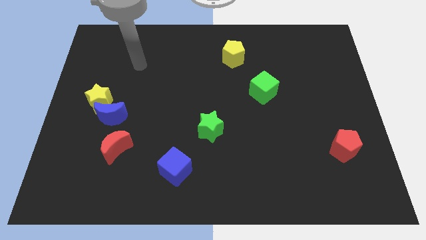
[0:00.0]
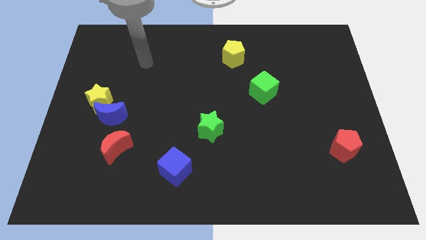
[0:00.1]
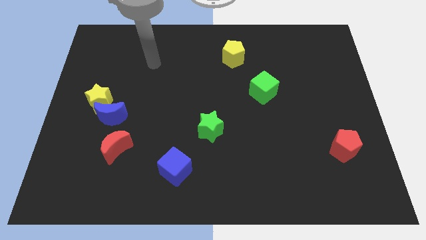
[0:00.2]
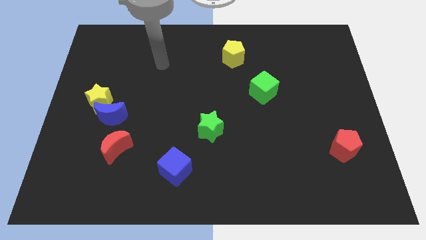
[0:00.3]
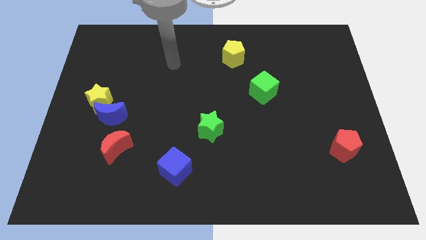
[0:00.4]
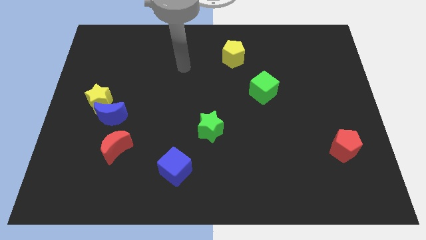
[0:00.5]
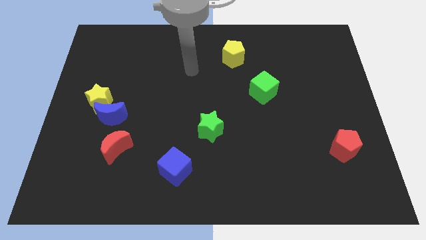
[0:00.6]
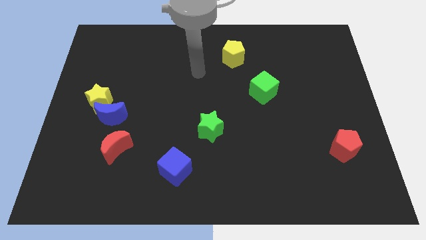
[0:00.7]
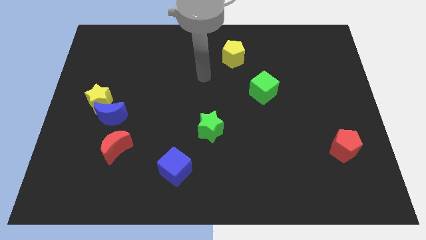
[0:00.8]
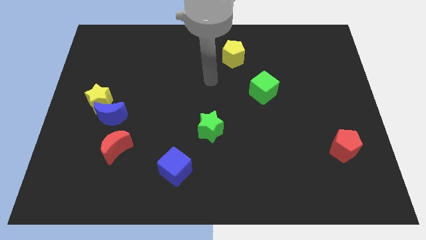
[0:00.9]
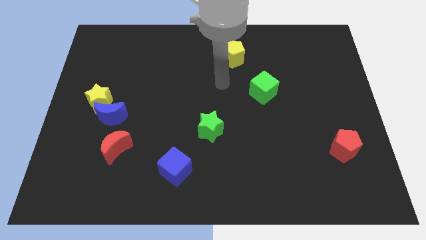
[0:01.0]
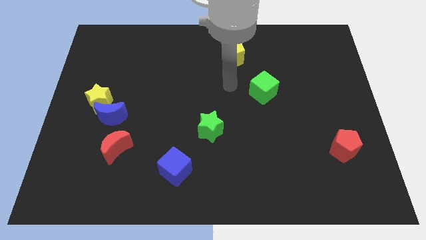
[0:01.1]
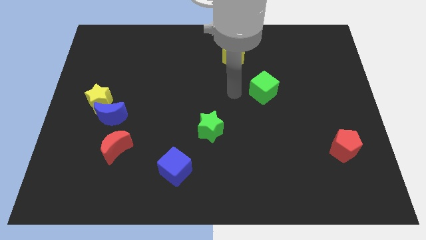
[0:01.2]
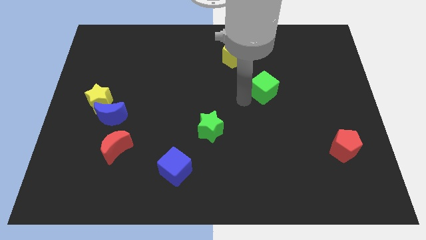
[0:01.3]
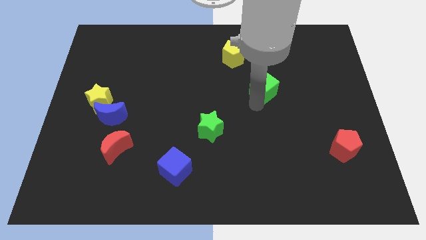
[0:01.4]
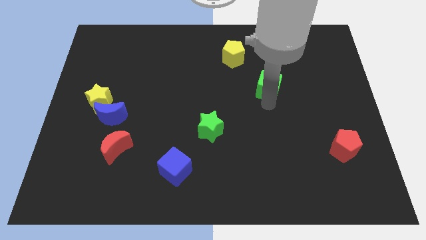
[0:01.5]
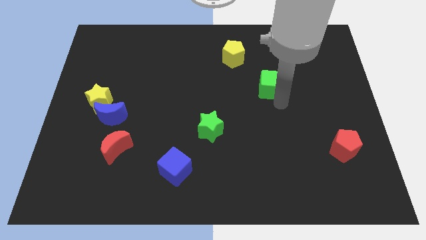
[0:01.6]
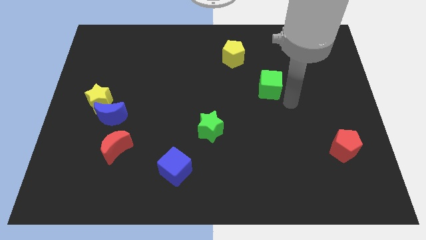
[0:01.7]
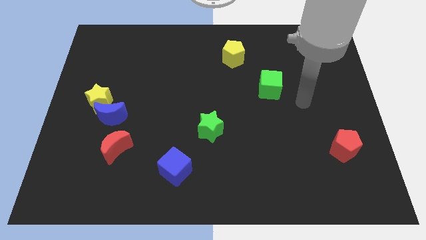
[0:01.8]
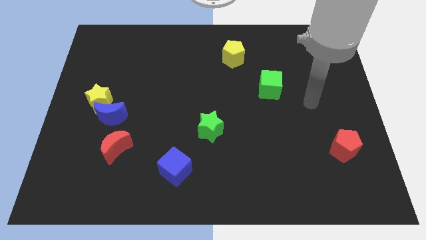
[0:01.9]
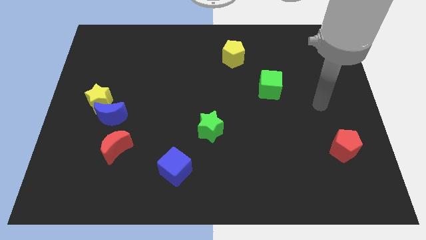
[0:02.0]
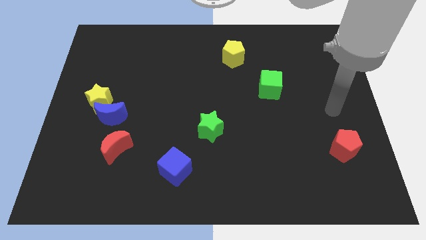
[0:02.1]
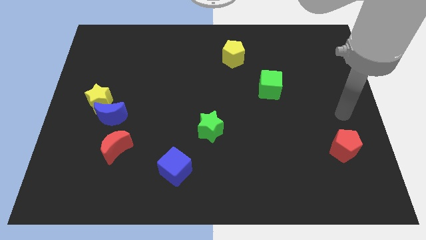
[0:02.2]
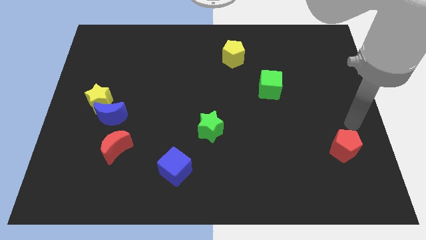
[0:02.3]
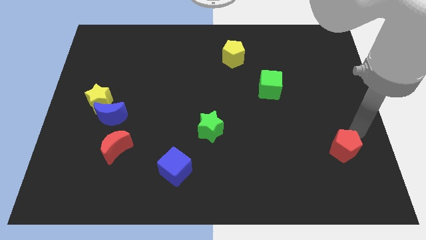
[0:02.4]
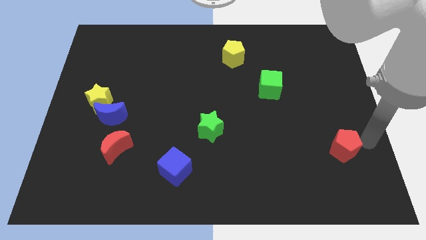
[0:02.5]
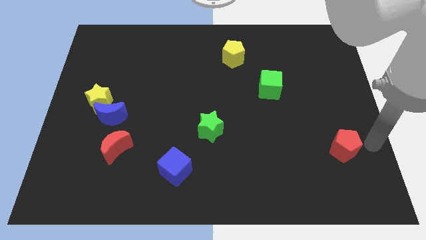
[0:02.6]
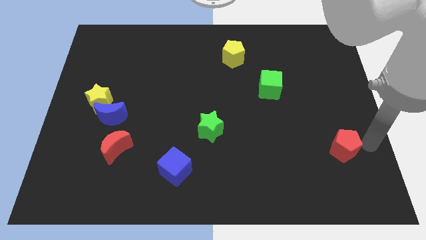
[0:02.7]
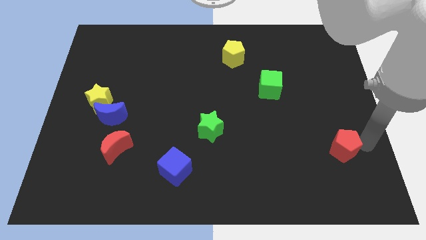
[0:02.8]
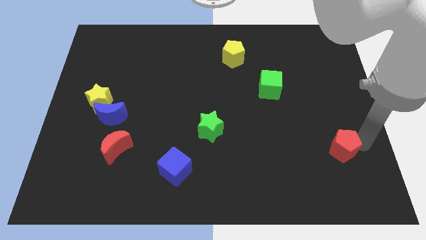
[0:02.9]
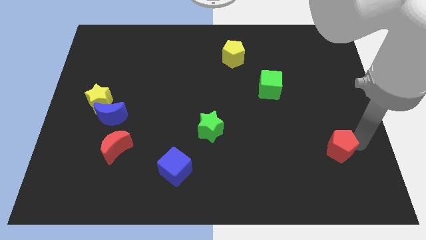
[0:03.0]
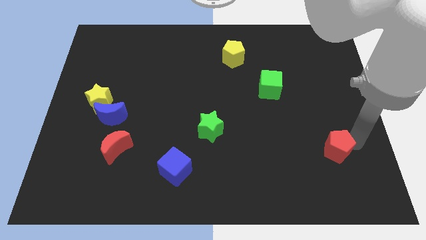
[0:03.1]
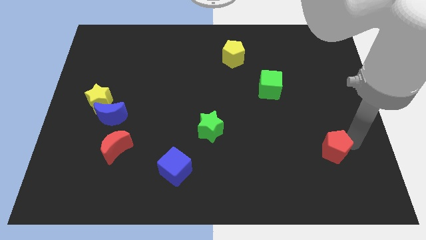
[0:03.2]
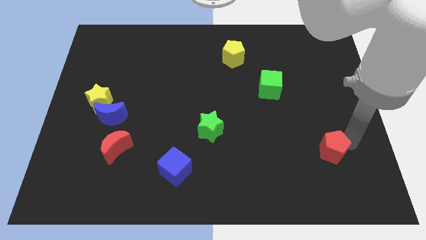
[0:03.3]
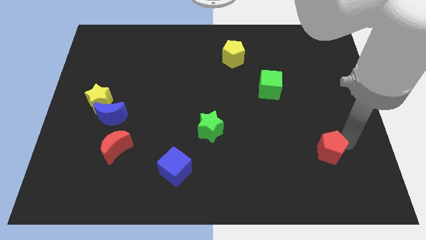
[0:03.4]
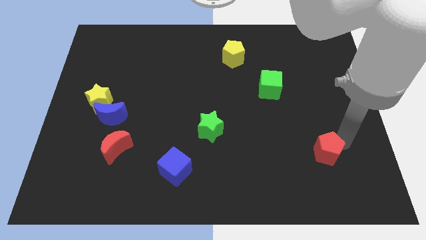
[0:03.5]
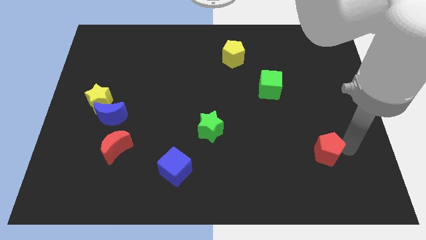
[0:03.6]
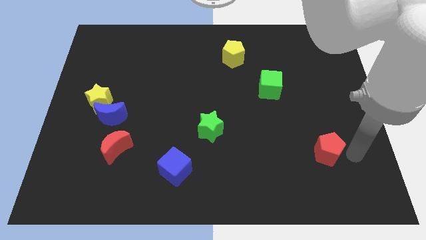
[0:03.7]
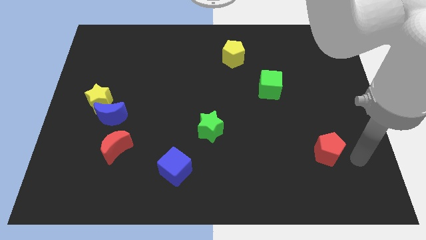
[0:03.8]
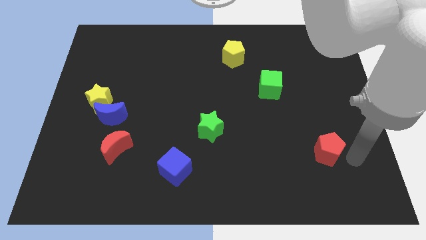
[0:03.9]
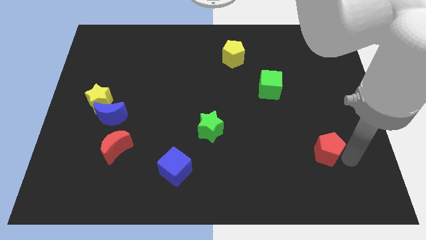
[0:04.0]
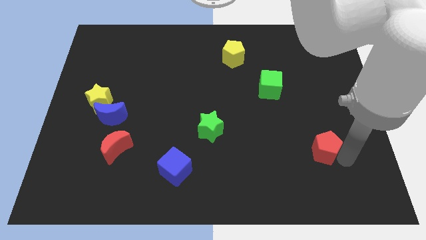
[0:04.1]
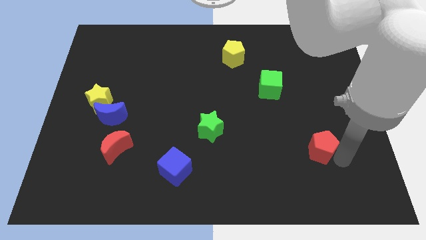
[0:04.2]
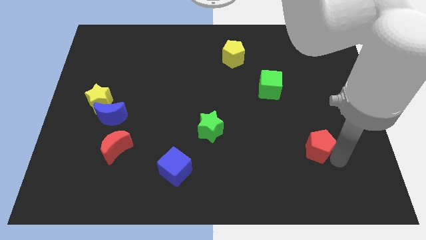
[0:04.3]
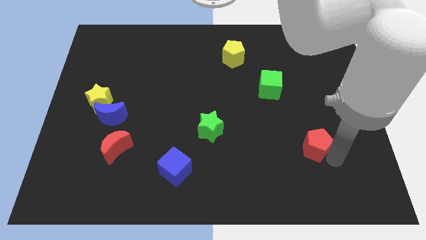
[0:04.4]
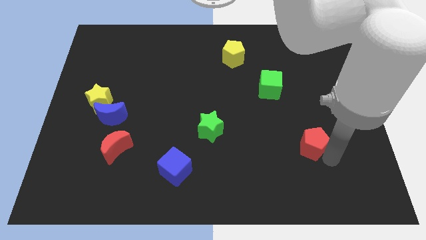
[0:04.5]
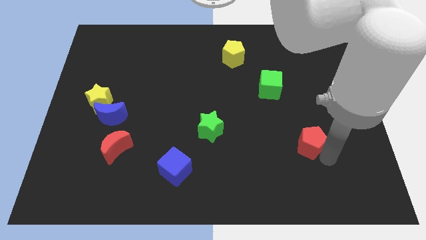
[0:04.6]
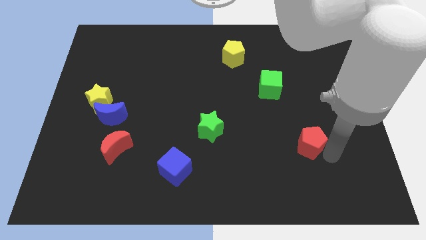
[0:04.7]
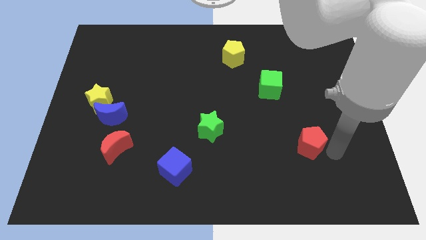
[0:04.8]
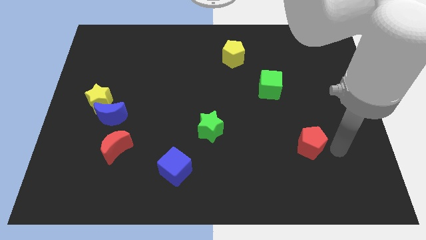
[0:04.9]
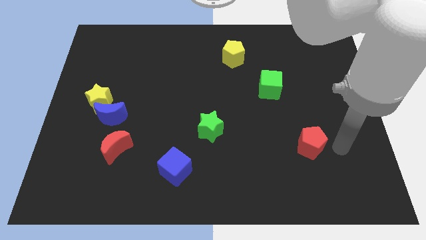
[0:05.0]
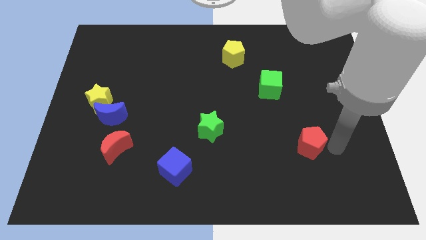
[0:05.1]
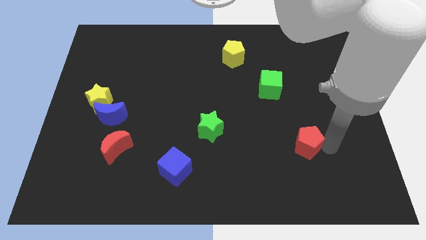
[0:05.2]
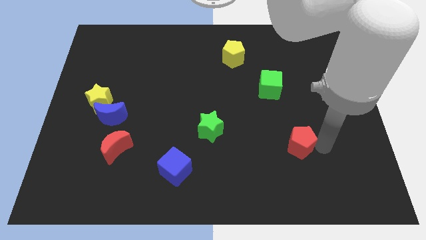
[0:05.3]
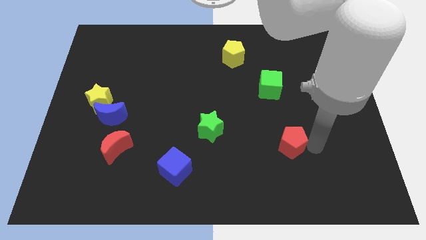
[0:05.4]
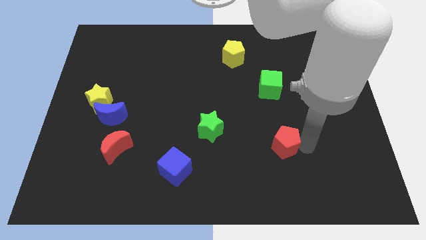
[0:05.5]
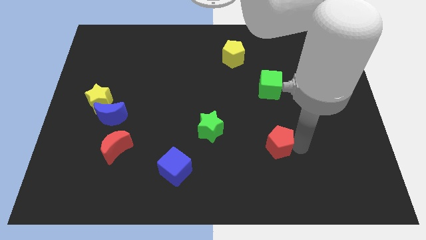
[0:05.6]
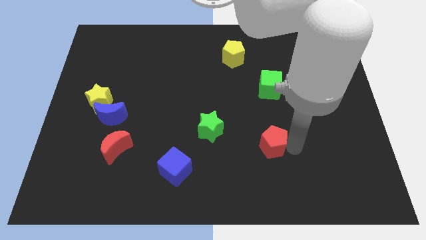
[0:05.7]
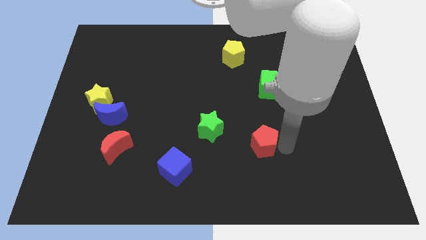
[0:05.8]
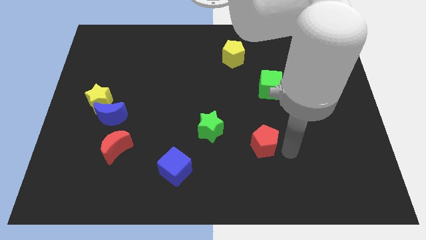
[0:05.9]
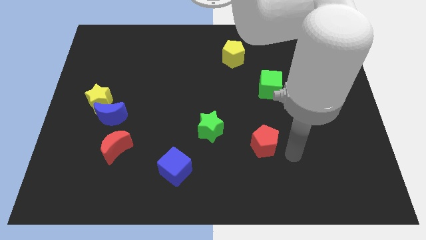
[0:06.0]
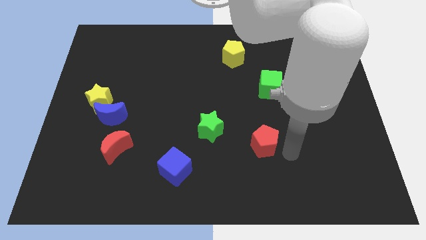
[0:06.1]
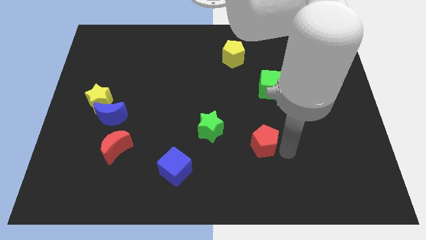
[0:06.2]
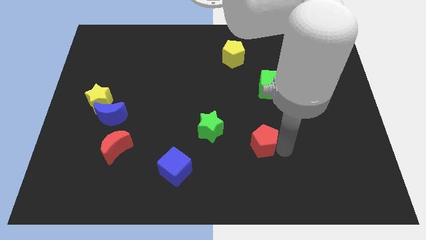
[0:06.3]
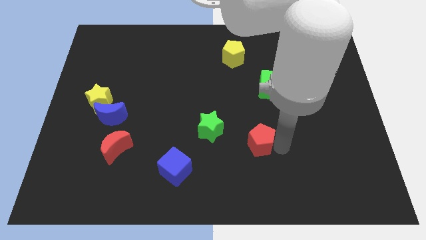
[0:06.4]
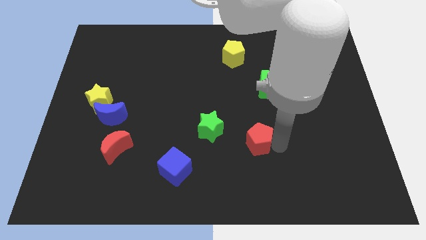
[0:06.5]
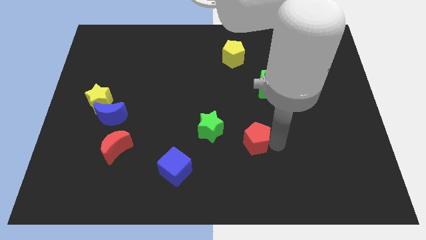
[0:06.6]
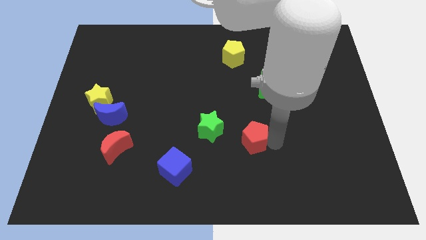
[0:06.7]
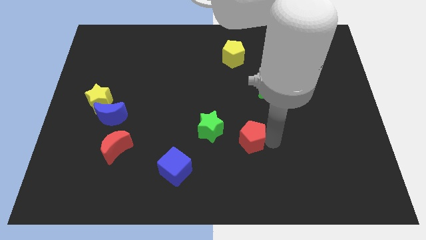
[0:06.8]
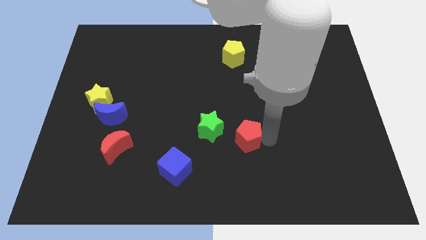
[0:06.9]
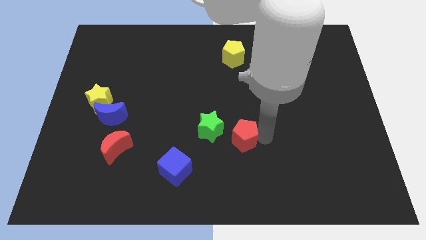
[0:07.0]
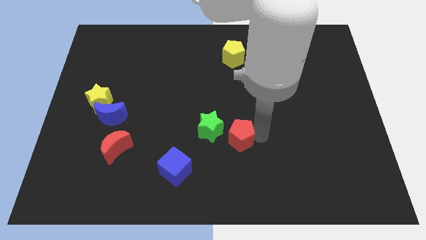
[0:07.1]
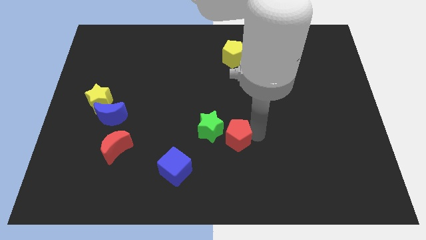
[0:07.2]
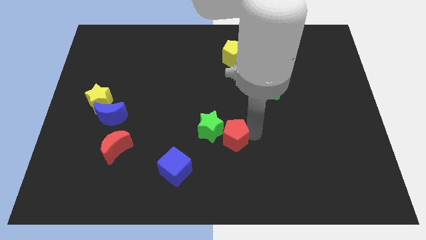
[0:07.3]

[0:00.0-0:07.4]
put the red pentagon next to the green star
